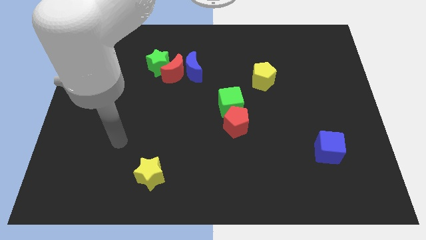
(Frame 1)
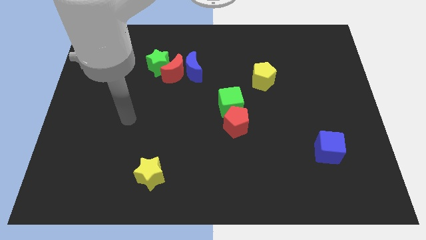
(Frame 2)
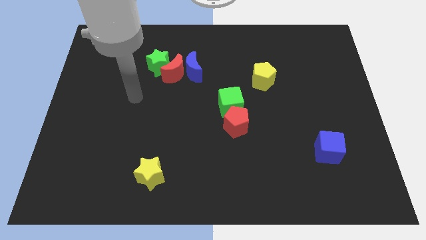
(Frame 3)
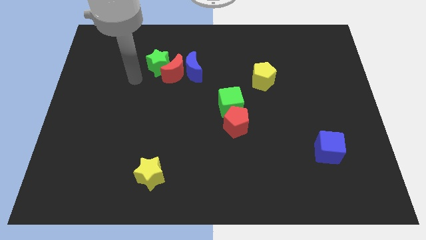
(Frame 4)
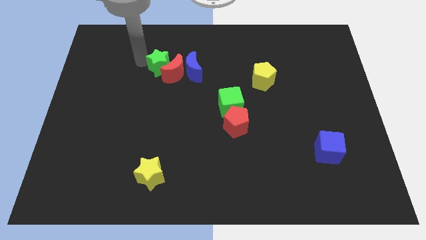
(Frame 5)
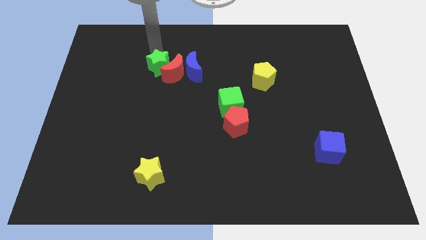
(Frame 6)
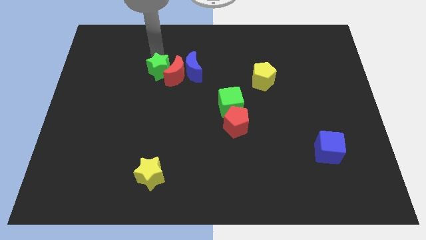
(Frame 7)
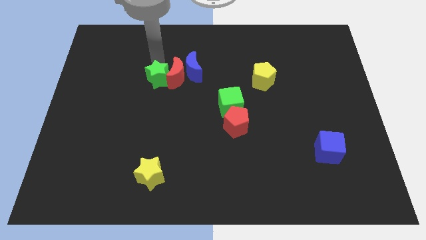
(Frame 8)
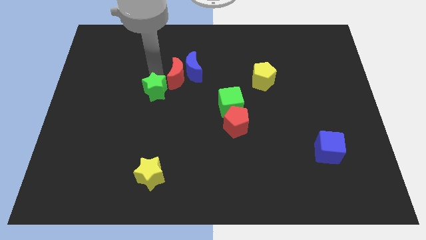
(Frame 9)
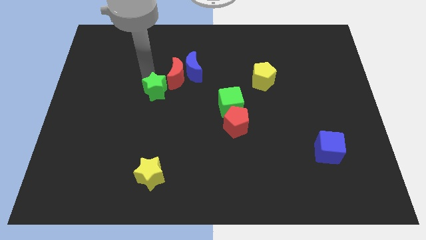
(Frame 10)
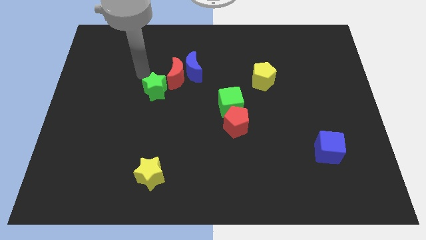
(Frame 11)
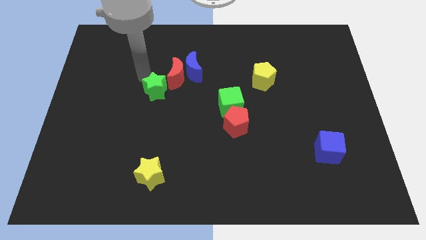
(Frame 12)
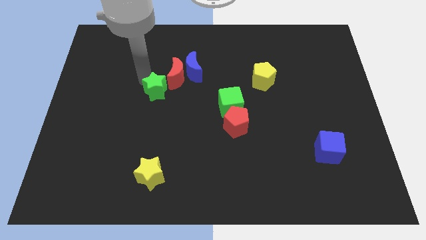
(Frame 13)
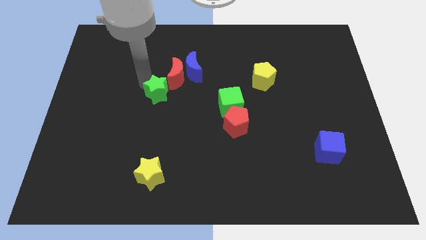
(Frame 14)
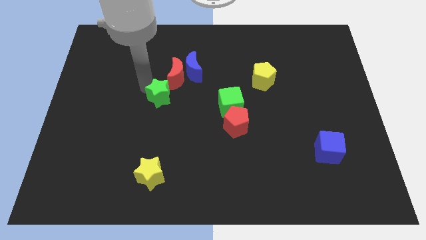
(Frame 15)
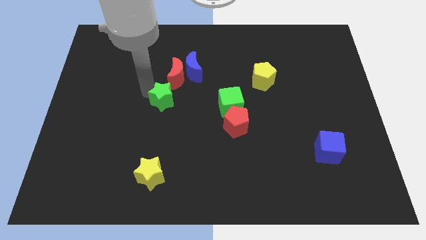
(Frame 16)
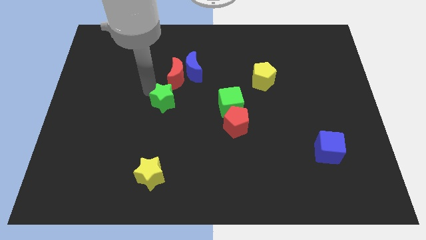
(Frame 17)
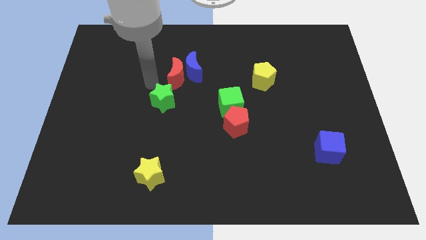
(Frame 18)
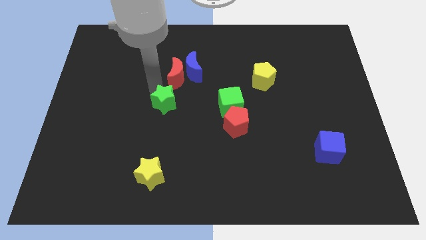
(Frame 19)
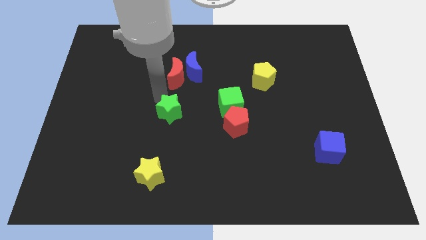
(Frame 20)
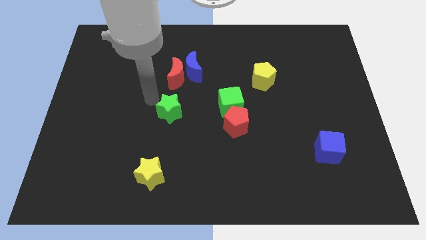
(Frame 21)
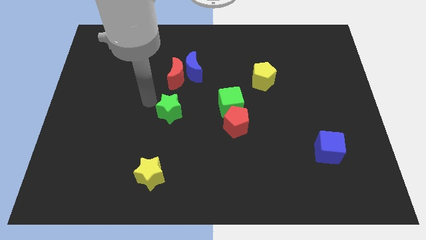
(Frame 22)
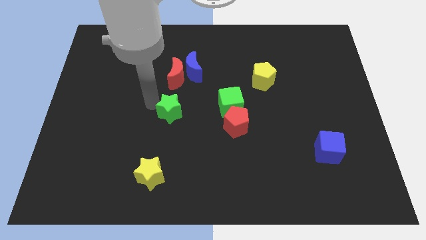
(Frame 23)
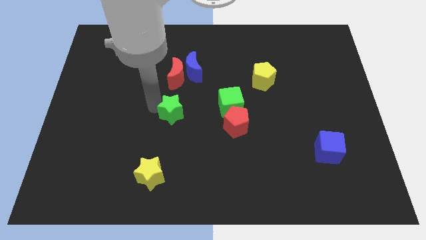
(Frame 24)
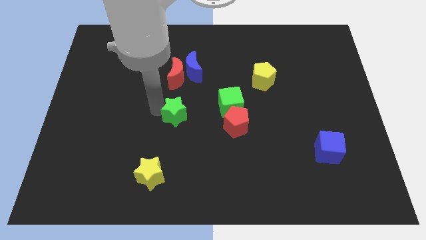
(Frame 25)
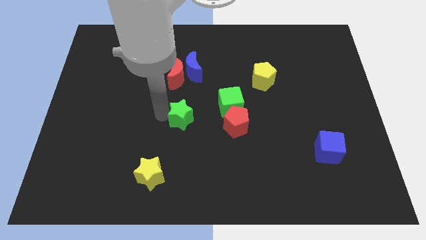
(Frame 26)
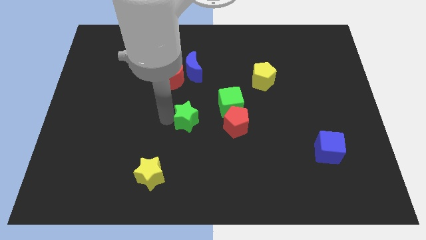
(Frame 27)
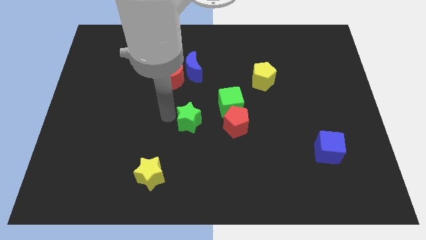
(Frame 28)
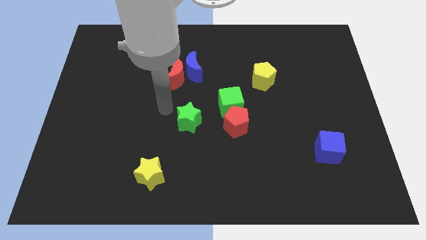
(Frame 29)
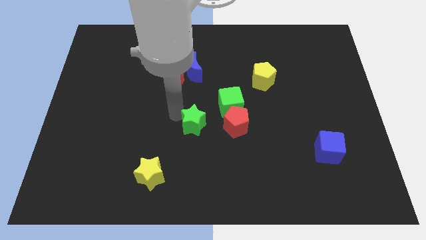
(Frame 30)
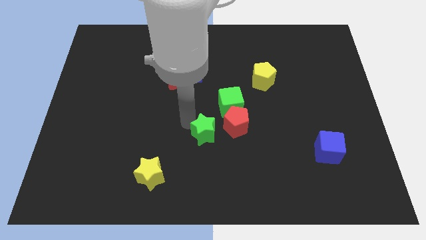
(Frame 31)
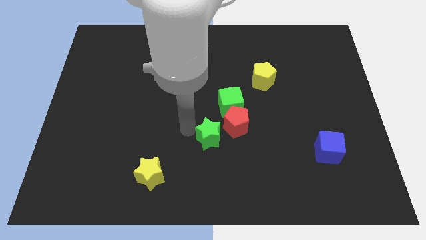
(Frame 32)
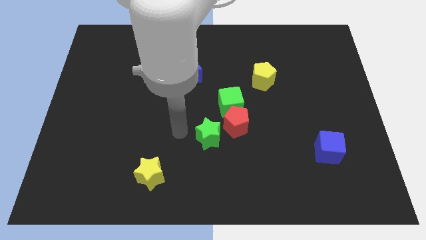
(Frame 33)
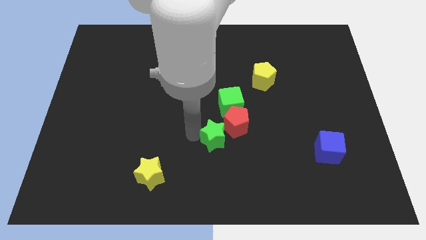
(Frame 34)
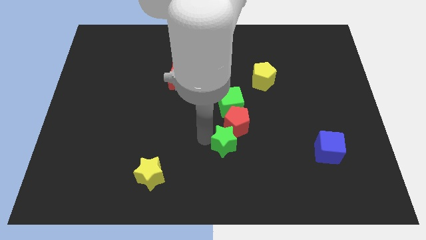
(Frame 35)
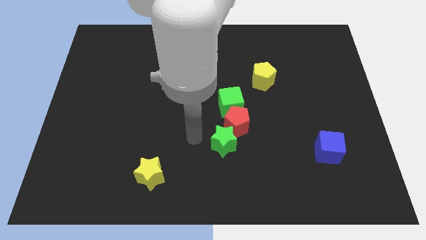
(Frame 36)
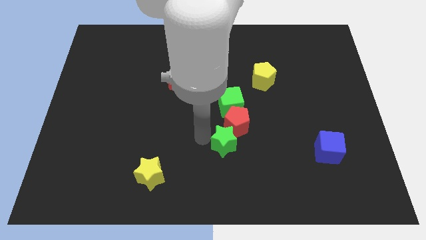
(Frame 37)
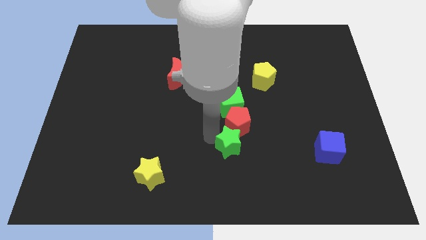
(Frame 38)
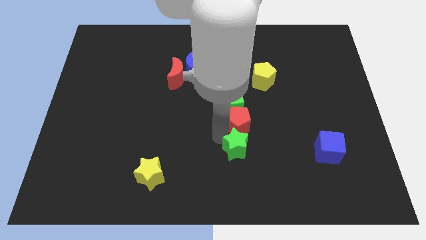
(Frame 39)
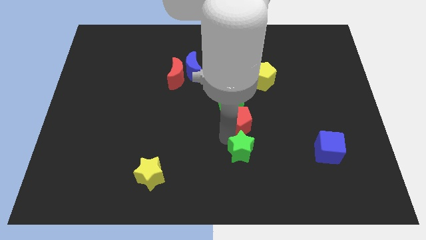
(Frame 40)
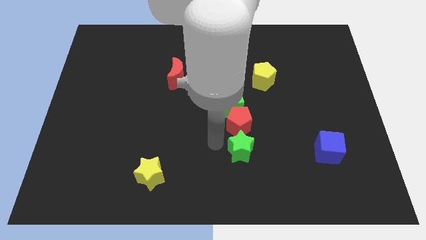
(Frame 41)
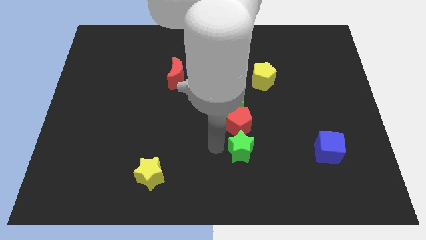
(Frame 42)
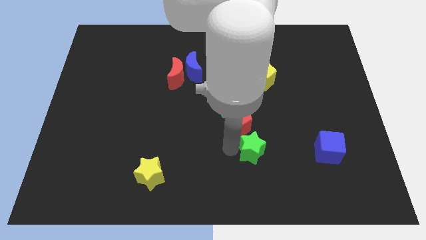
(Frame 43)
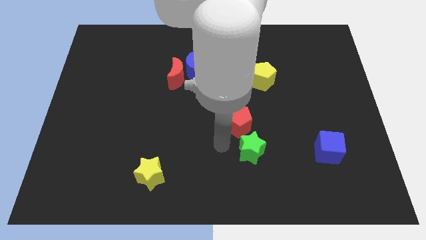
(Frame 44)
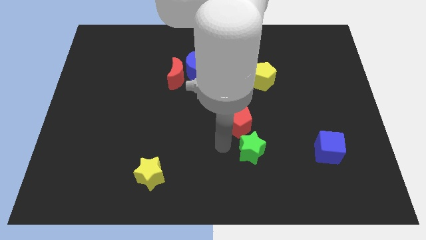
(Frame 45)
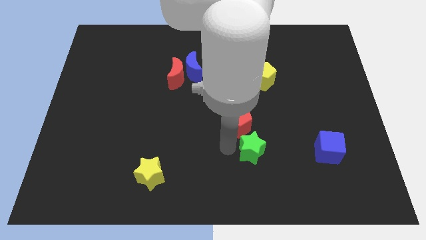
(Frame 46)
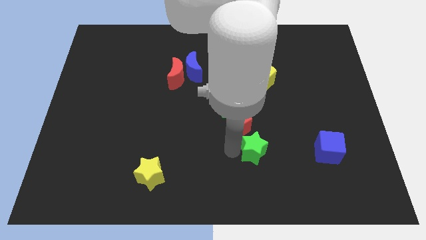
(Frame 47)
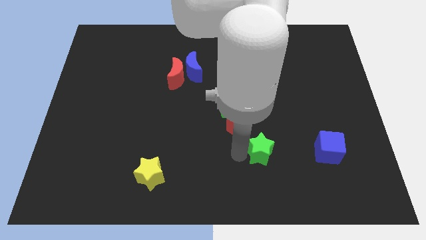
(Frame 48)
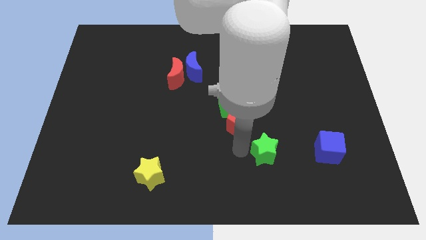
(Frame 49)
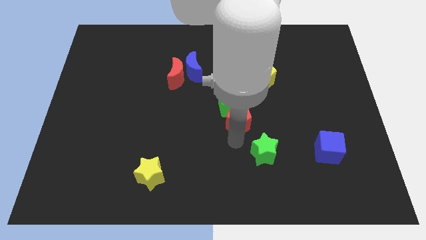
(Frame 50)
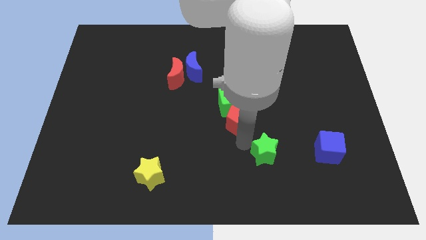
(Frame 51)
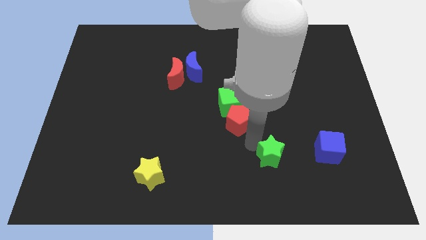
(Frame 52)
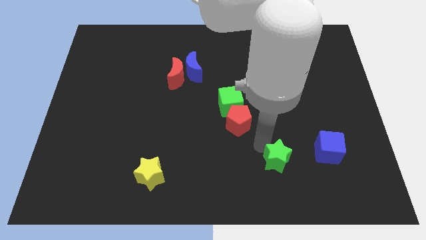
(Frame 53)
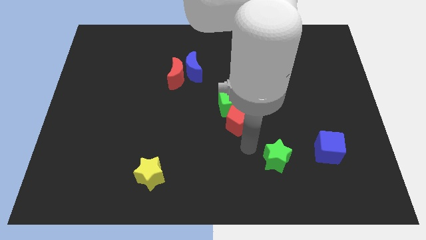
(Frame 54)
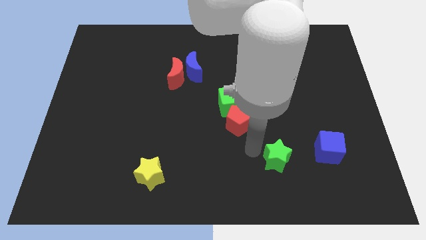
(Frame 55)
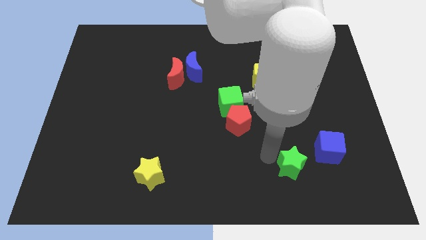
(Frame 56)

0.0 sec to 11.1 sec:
slide the green star to the bottom left of the blue cube
